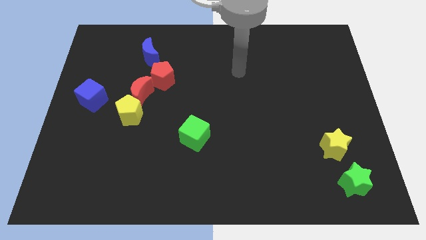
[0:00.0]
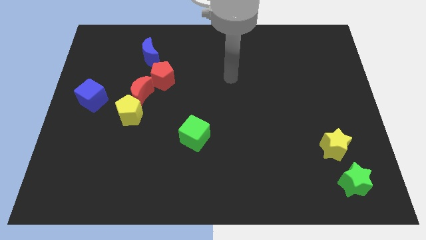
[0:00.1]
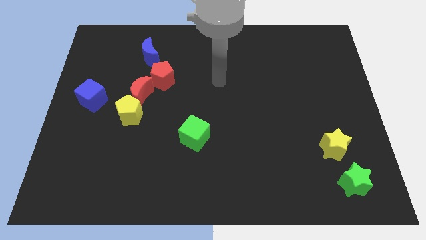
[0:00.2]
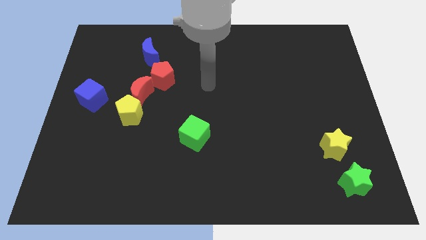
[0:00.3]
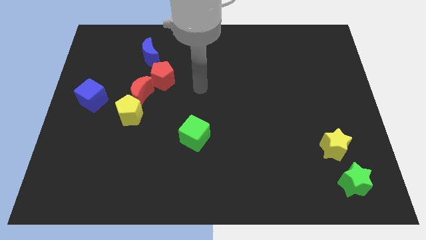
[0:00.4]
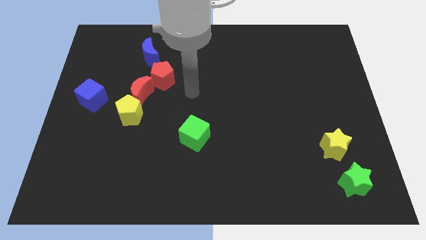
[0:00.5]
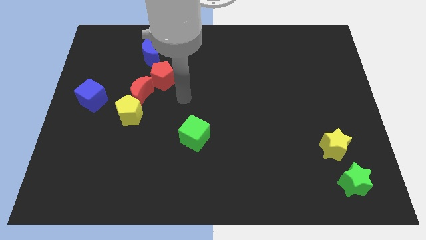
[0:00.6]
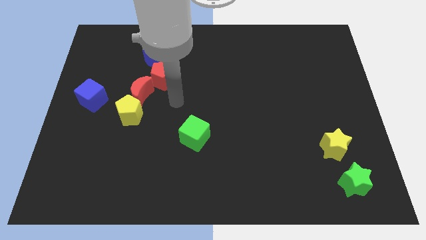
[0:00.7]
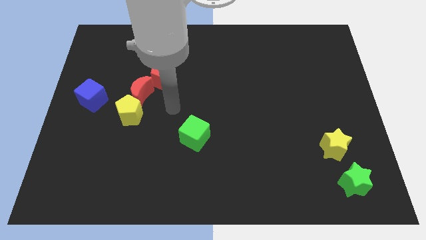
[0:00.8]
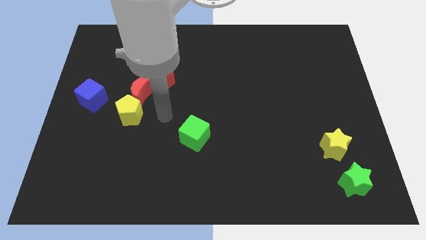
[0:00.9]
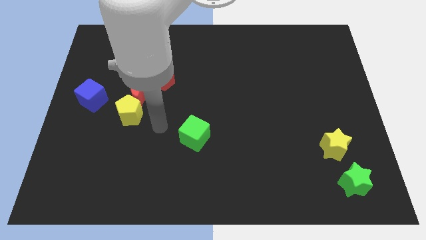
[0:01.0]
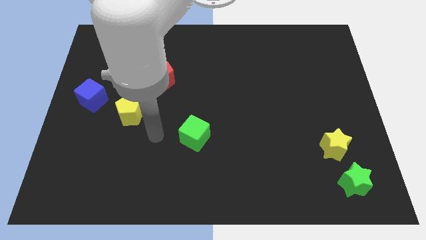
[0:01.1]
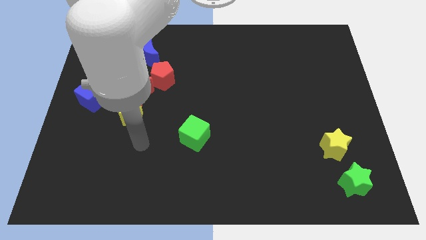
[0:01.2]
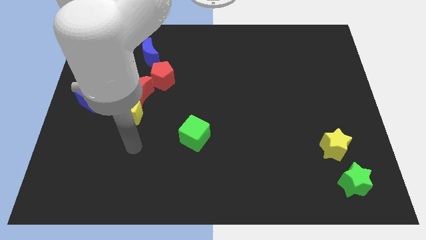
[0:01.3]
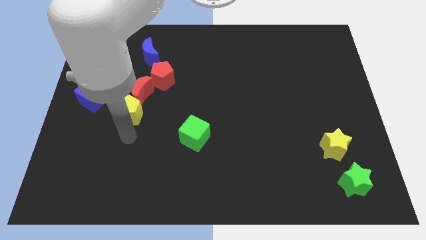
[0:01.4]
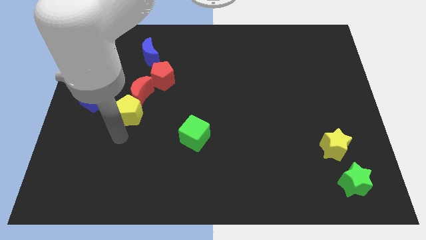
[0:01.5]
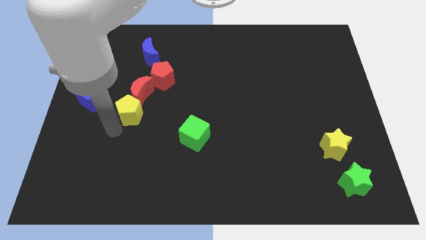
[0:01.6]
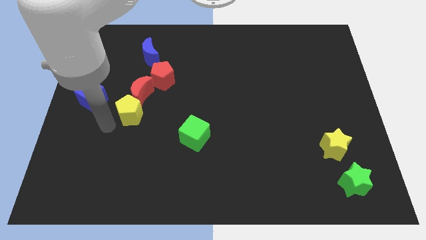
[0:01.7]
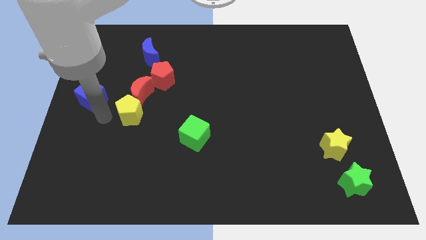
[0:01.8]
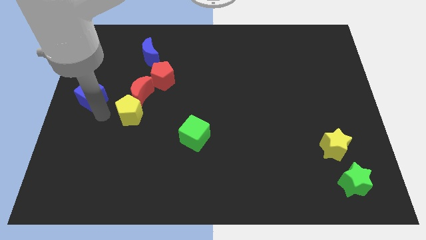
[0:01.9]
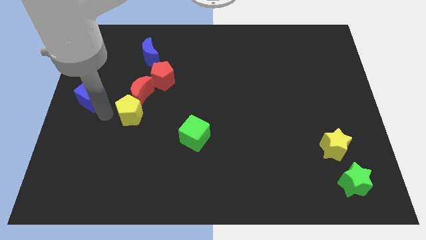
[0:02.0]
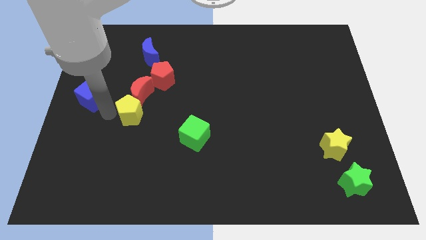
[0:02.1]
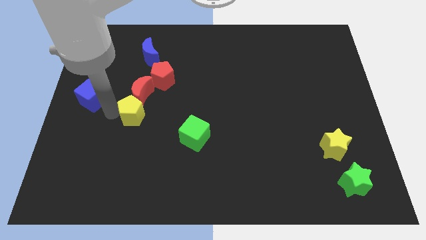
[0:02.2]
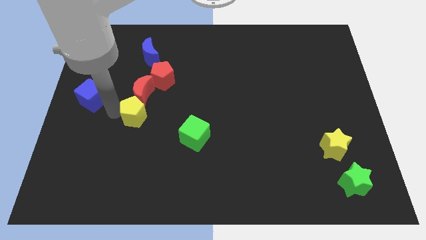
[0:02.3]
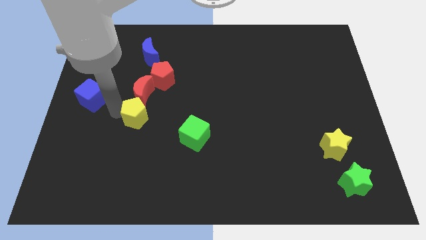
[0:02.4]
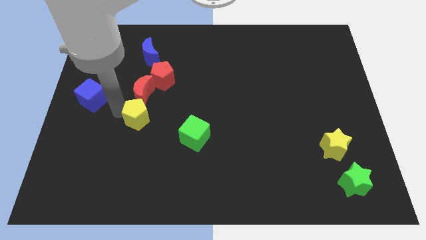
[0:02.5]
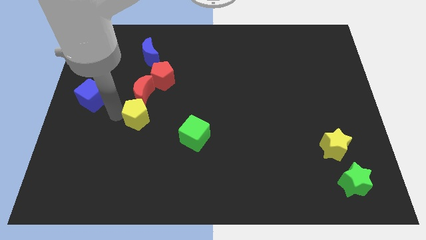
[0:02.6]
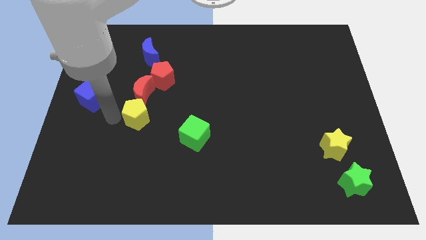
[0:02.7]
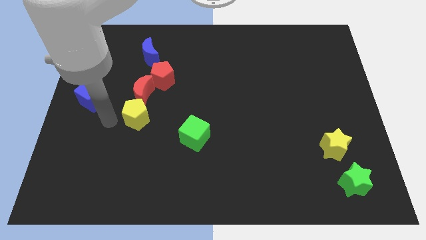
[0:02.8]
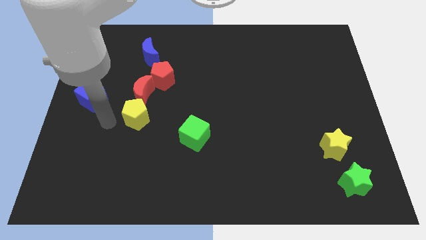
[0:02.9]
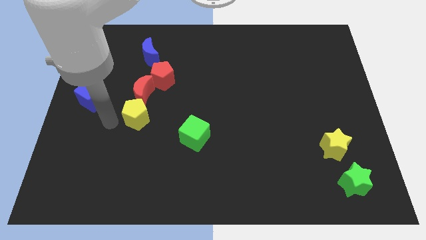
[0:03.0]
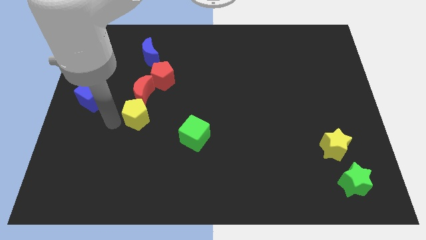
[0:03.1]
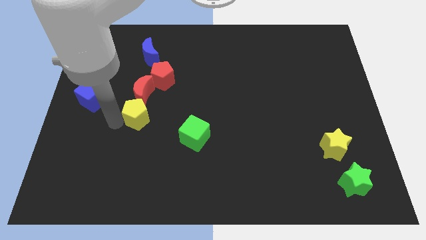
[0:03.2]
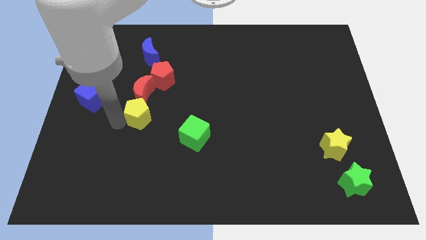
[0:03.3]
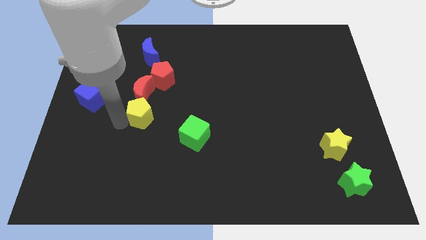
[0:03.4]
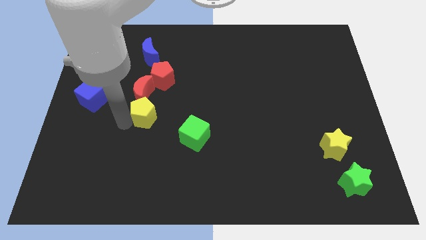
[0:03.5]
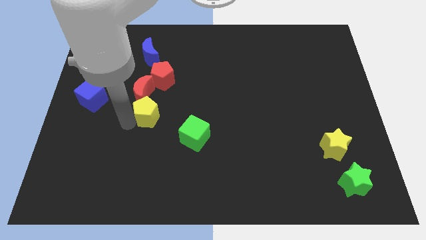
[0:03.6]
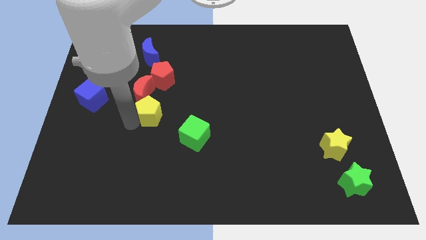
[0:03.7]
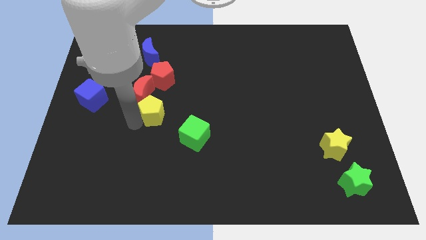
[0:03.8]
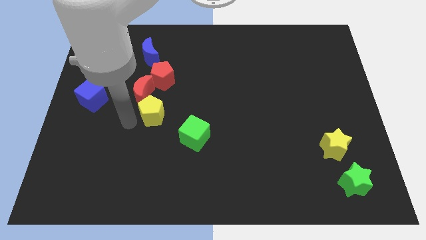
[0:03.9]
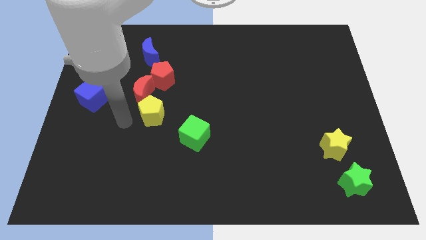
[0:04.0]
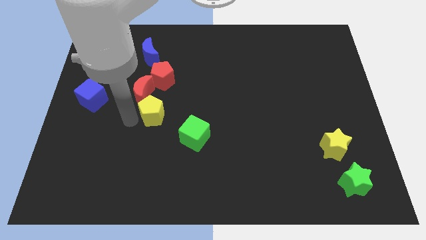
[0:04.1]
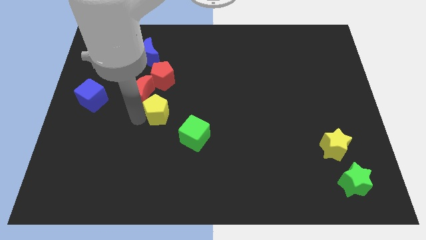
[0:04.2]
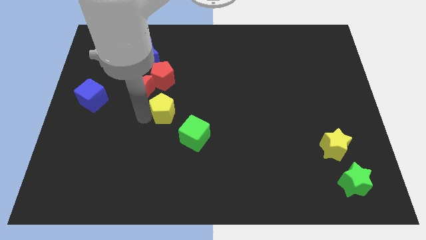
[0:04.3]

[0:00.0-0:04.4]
slightly push the yellow pentagon to the right

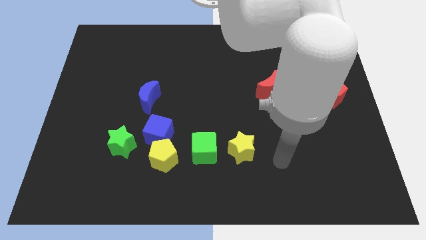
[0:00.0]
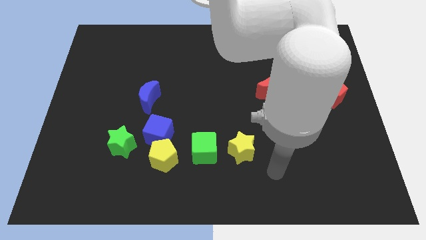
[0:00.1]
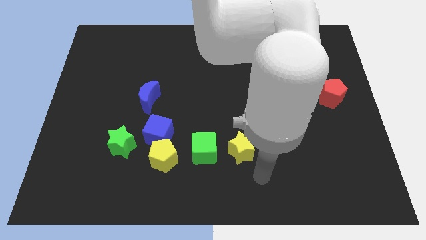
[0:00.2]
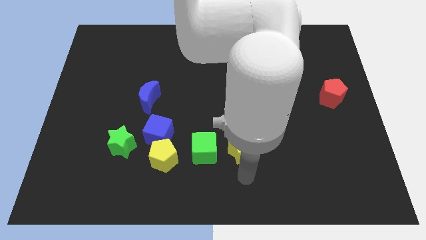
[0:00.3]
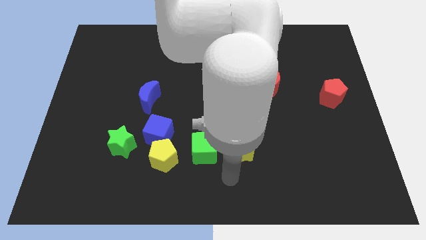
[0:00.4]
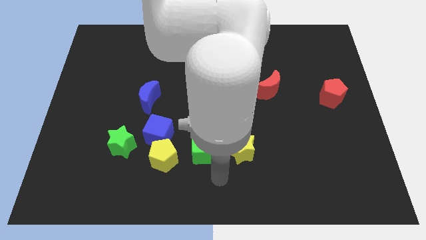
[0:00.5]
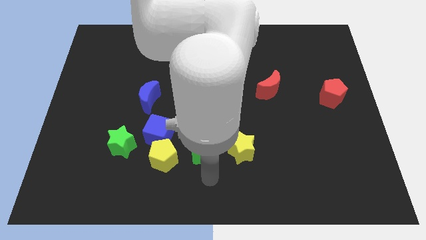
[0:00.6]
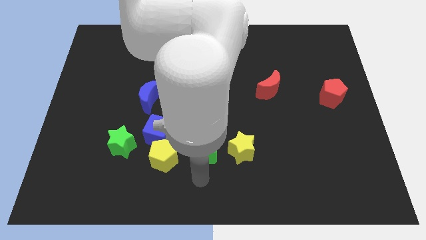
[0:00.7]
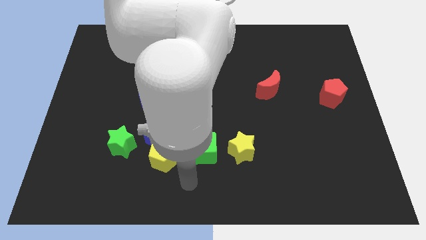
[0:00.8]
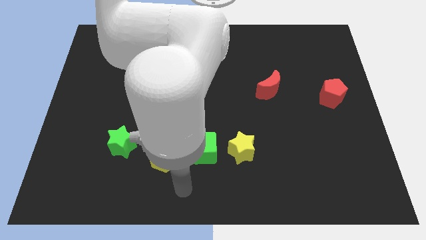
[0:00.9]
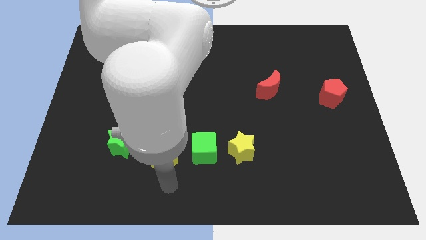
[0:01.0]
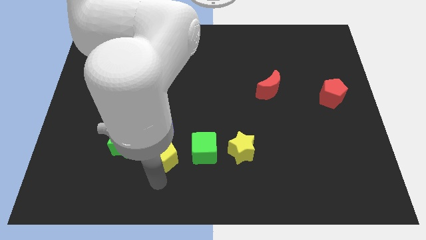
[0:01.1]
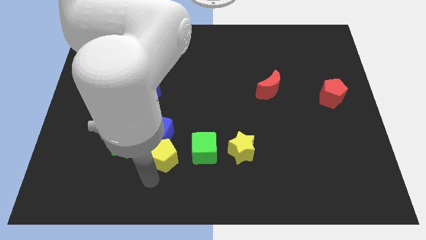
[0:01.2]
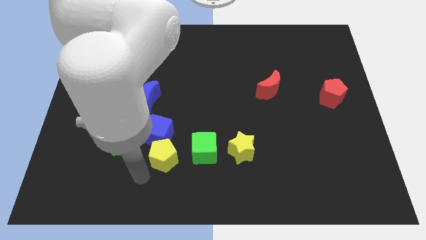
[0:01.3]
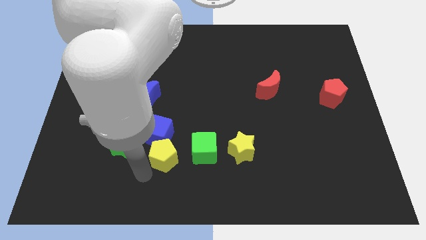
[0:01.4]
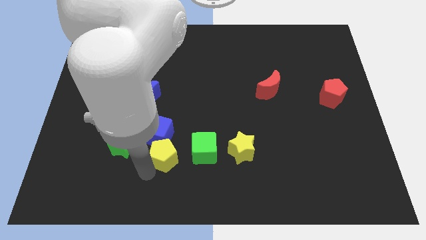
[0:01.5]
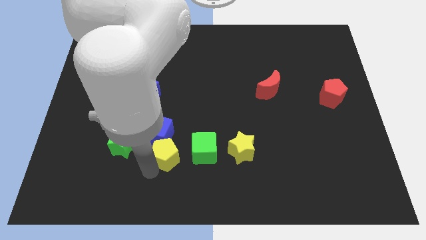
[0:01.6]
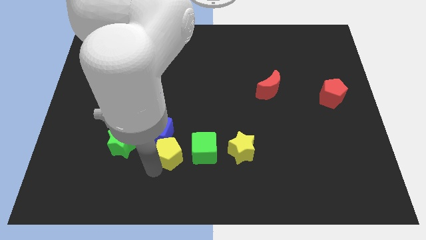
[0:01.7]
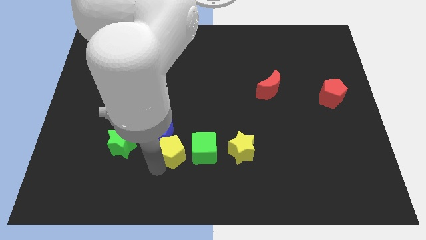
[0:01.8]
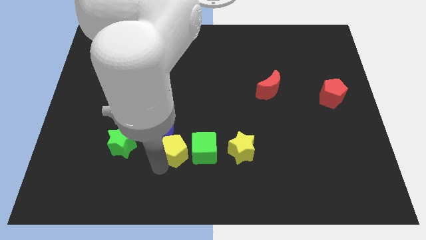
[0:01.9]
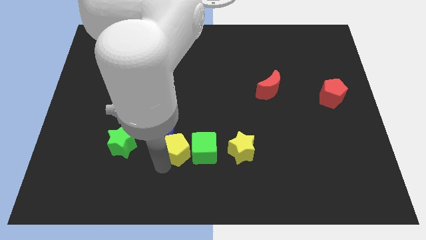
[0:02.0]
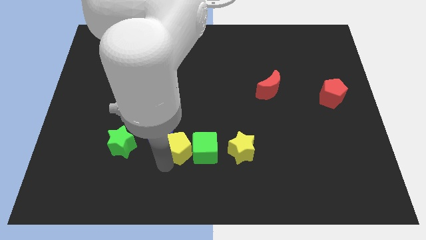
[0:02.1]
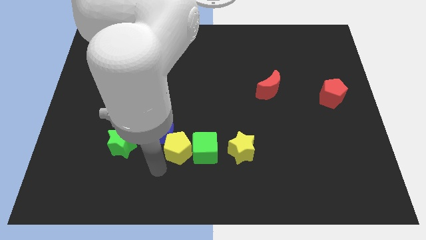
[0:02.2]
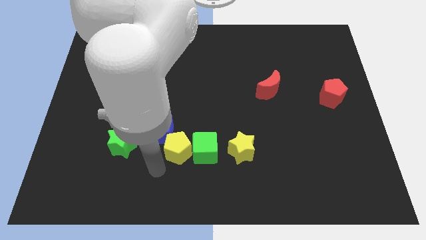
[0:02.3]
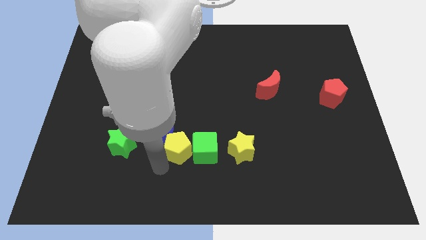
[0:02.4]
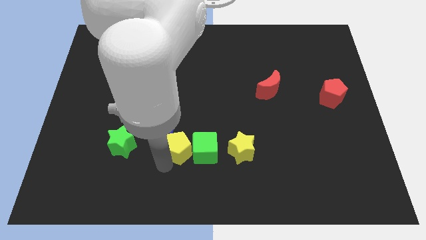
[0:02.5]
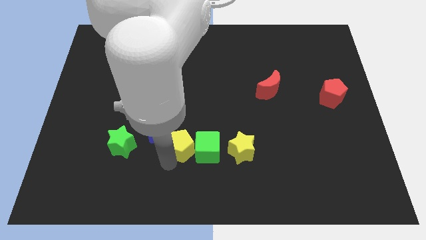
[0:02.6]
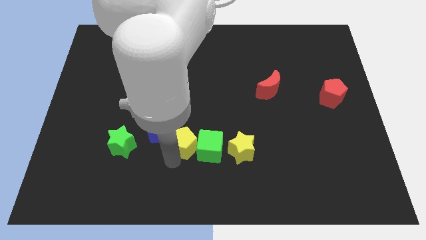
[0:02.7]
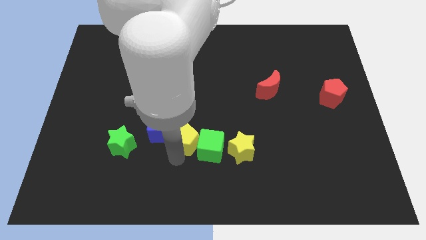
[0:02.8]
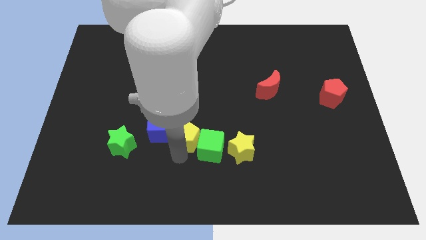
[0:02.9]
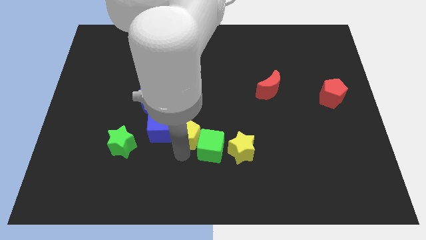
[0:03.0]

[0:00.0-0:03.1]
slide the yellow pentagon up and right somewhat

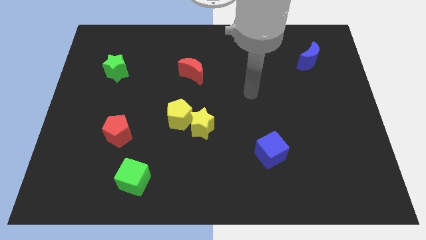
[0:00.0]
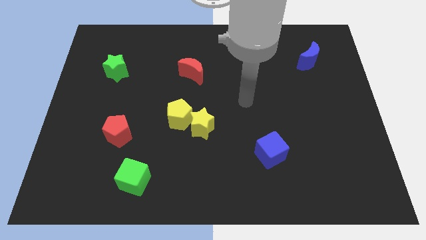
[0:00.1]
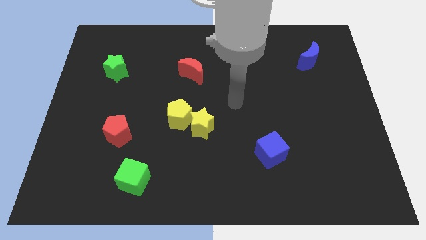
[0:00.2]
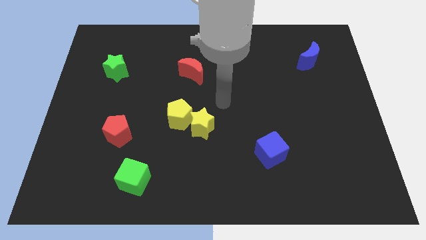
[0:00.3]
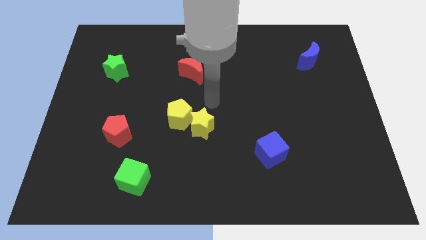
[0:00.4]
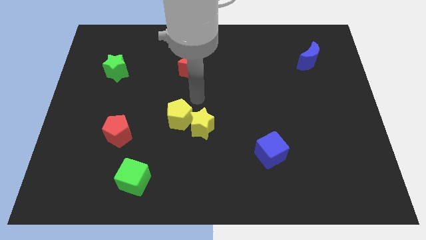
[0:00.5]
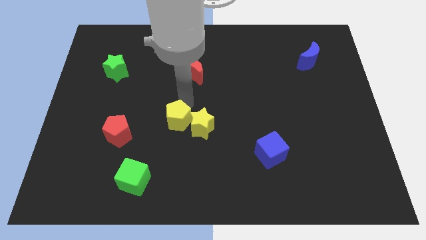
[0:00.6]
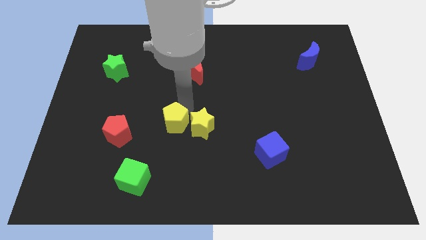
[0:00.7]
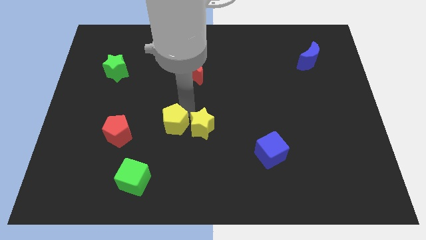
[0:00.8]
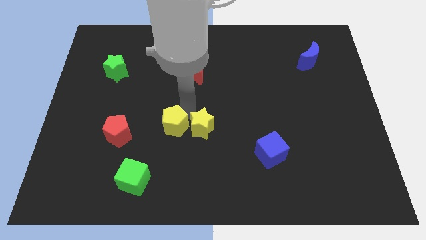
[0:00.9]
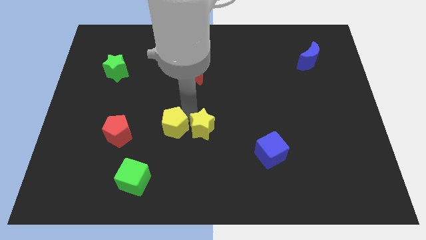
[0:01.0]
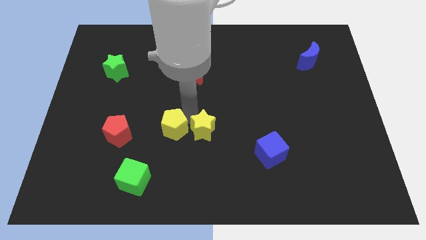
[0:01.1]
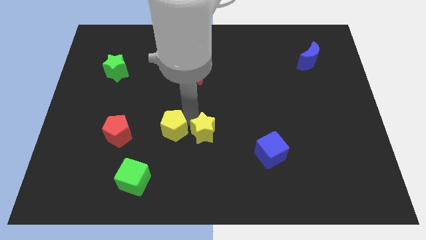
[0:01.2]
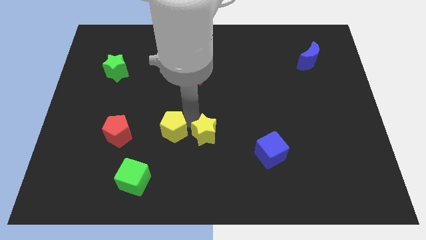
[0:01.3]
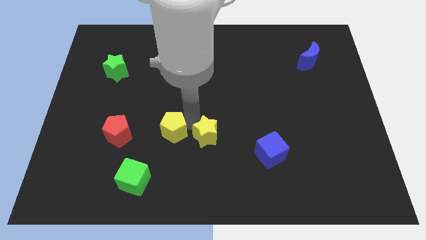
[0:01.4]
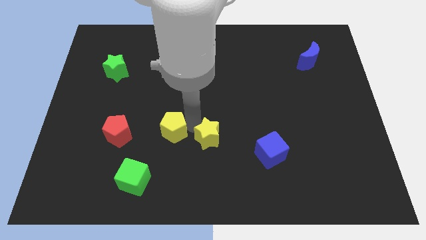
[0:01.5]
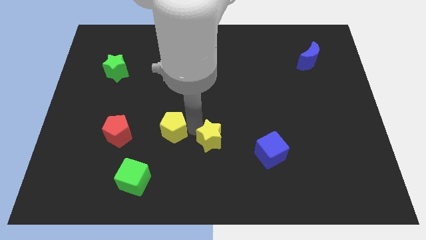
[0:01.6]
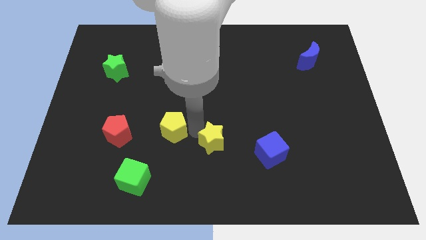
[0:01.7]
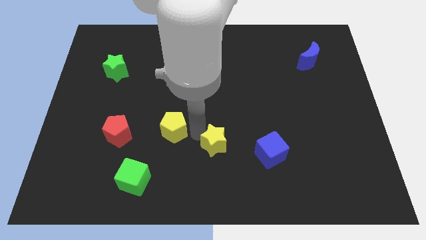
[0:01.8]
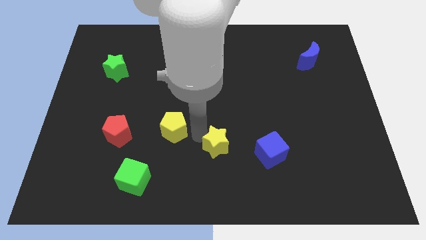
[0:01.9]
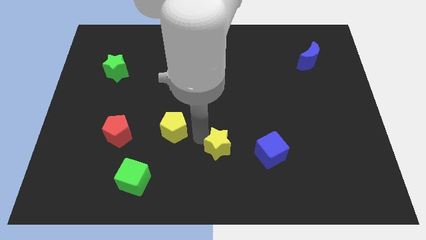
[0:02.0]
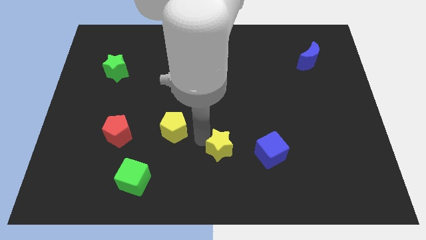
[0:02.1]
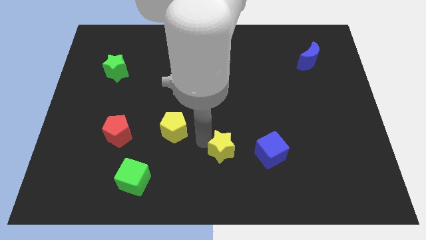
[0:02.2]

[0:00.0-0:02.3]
slightly push the yellow star down and then to the right
